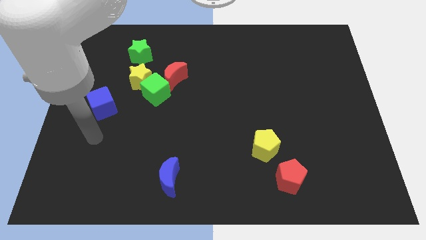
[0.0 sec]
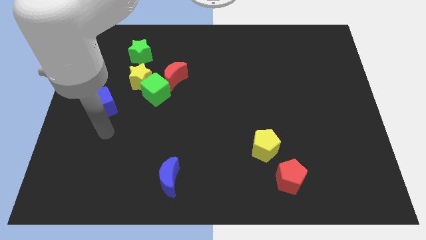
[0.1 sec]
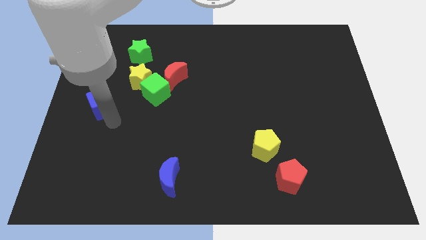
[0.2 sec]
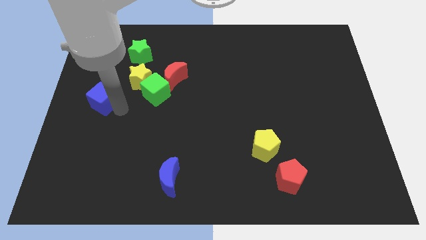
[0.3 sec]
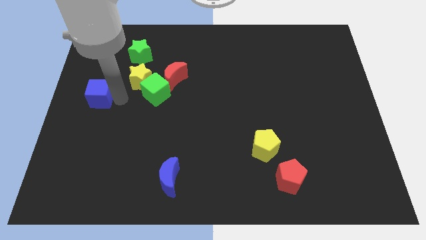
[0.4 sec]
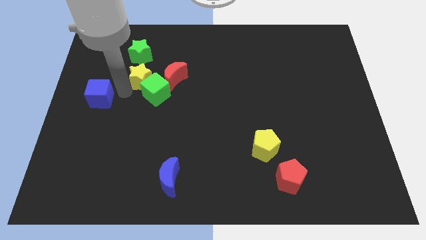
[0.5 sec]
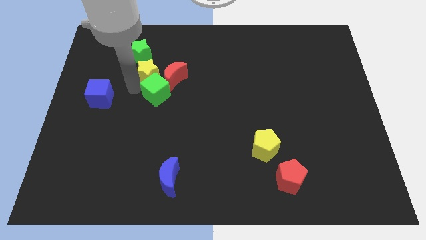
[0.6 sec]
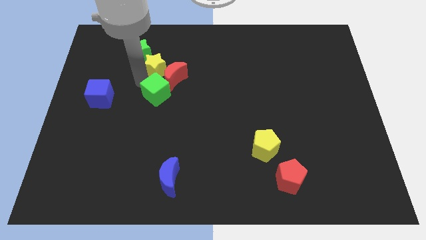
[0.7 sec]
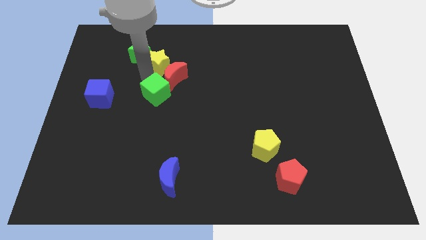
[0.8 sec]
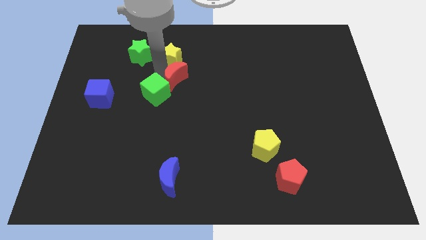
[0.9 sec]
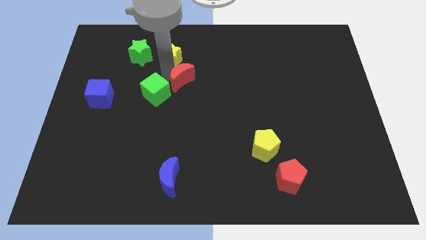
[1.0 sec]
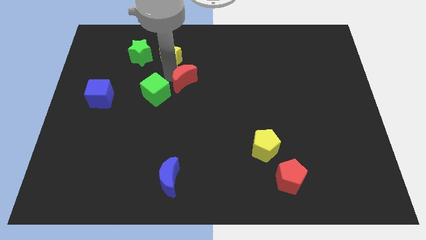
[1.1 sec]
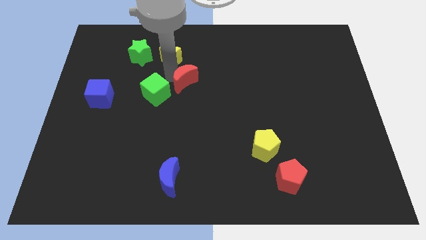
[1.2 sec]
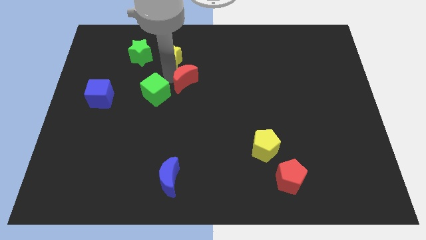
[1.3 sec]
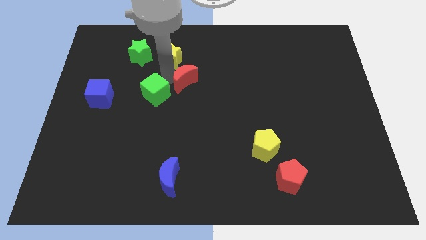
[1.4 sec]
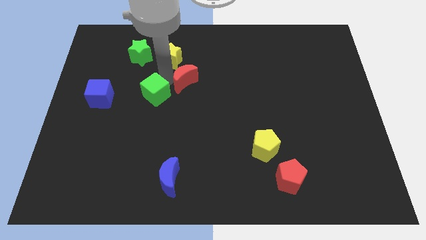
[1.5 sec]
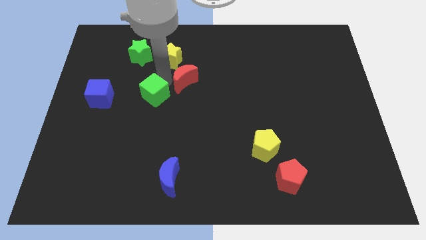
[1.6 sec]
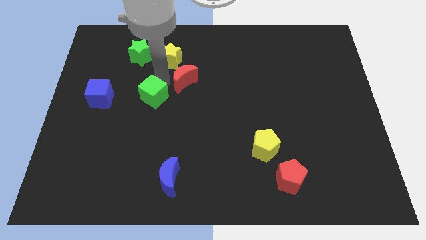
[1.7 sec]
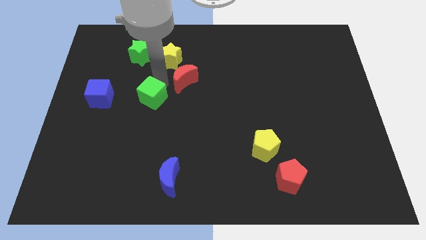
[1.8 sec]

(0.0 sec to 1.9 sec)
move the green cube away from the yellow star and red moon

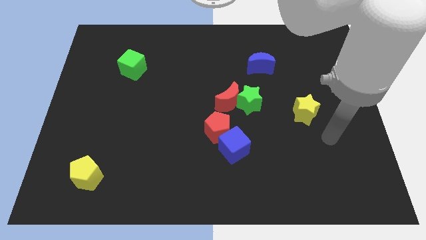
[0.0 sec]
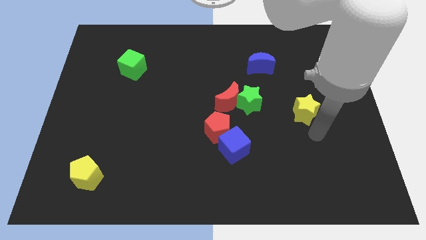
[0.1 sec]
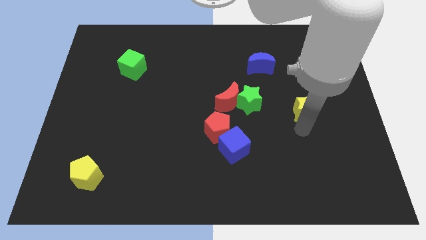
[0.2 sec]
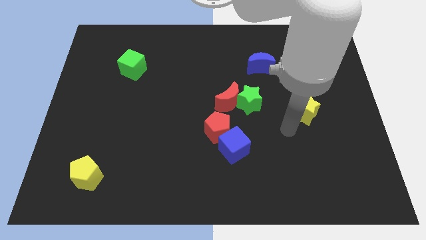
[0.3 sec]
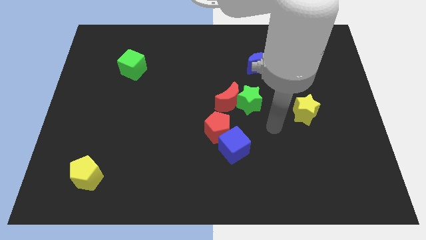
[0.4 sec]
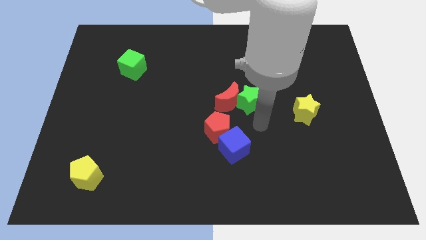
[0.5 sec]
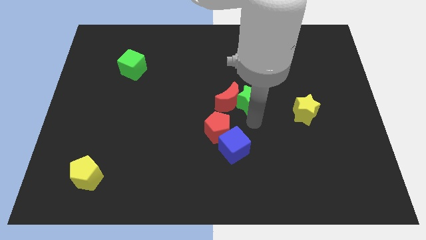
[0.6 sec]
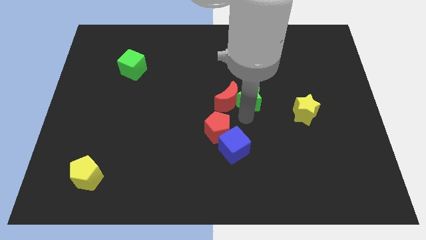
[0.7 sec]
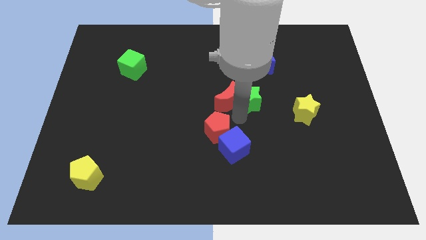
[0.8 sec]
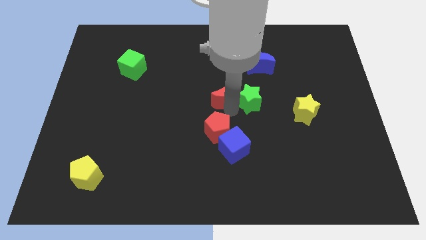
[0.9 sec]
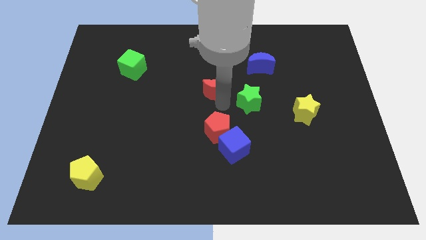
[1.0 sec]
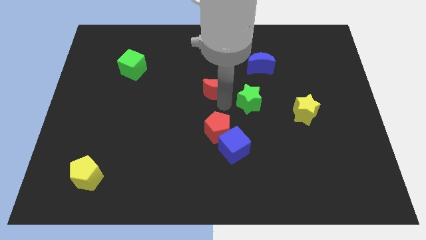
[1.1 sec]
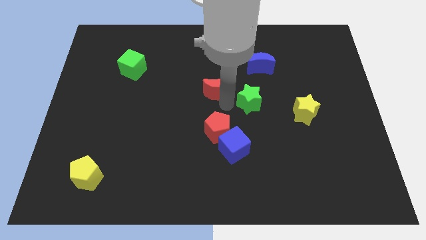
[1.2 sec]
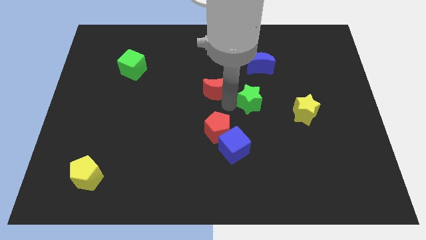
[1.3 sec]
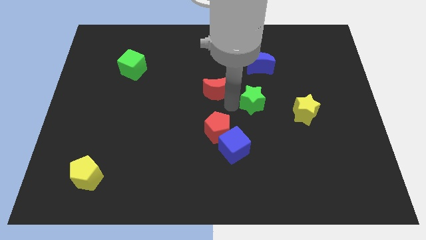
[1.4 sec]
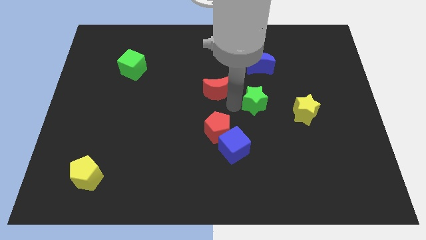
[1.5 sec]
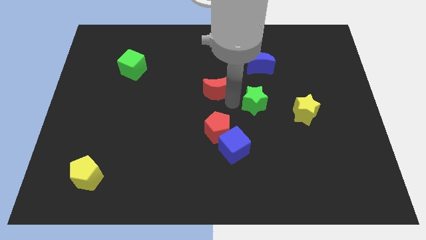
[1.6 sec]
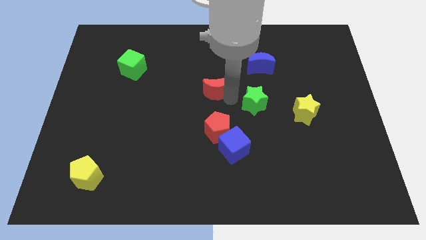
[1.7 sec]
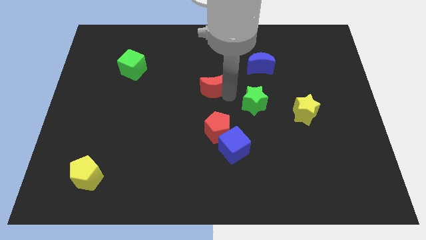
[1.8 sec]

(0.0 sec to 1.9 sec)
move the green star away from the red moon

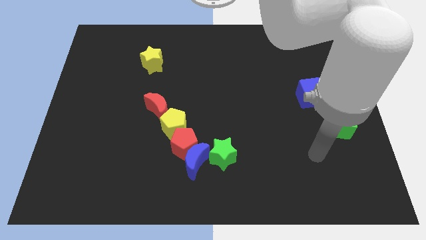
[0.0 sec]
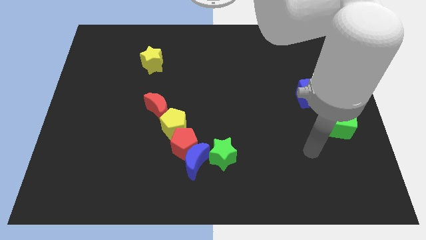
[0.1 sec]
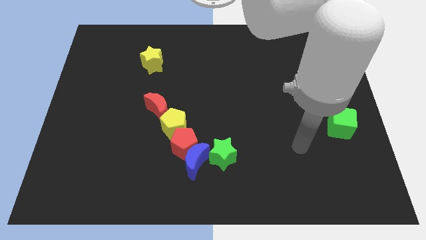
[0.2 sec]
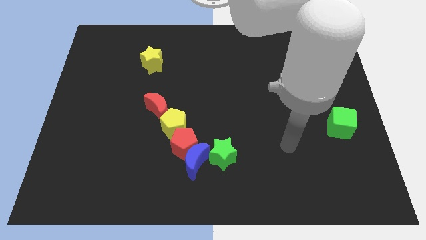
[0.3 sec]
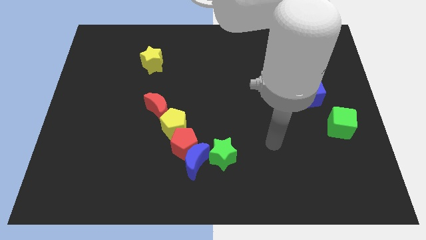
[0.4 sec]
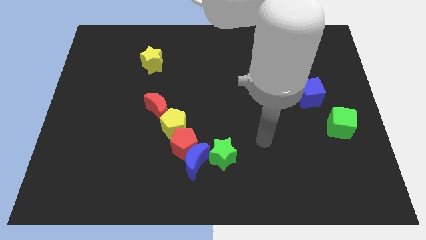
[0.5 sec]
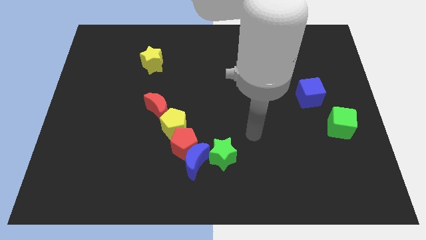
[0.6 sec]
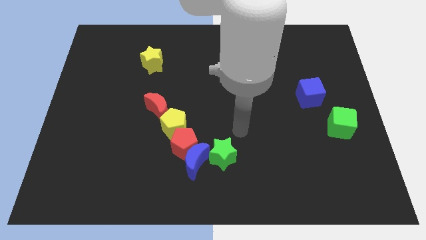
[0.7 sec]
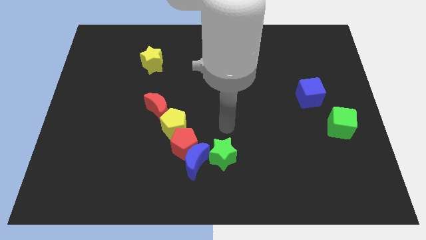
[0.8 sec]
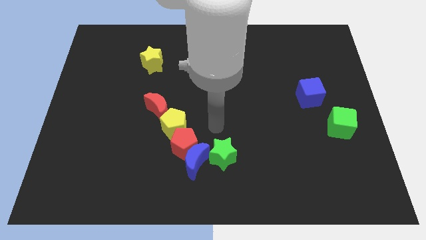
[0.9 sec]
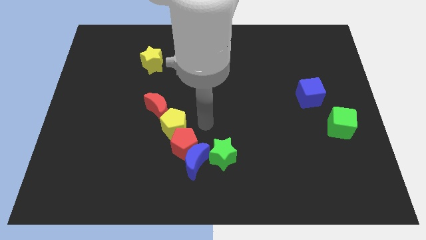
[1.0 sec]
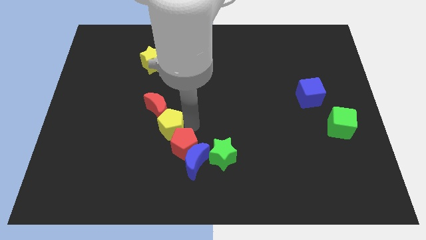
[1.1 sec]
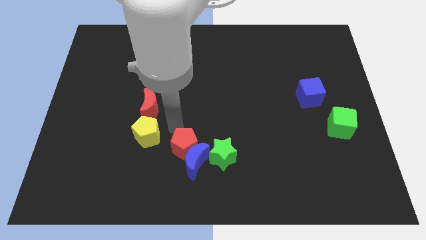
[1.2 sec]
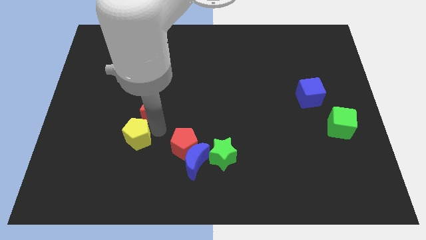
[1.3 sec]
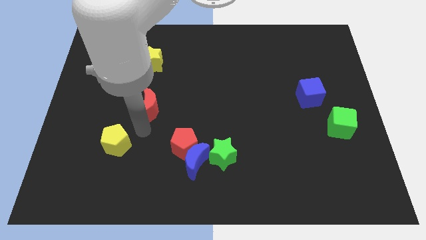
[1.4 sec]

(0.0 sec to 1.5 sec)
pull the red moon apart from the yellow pentagon

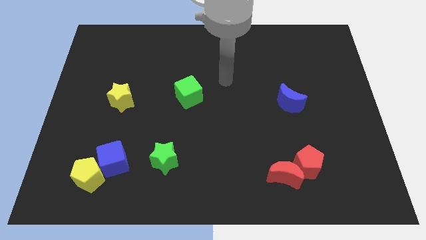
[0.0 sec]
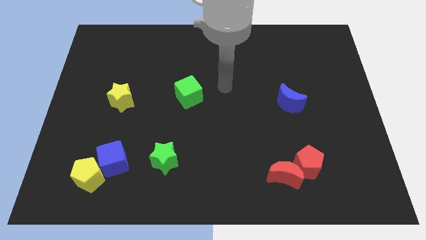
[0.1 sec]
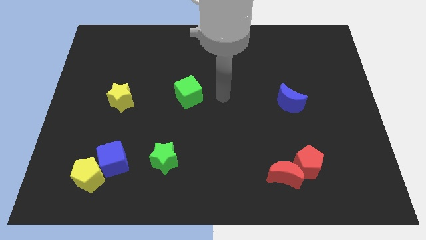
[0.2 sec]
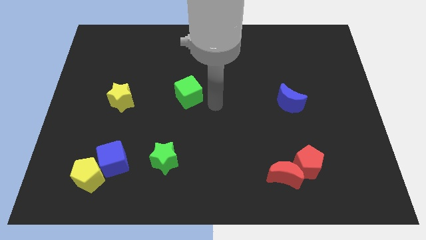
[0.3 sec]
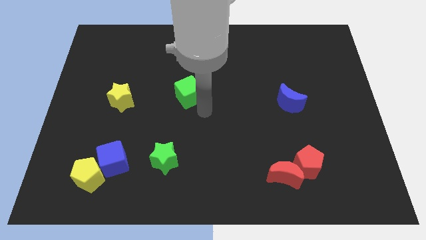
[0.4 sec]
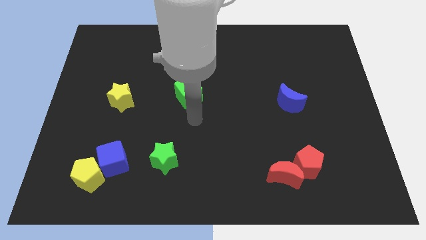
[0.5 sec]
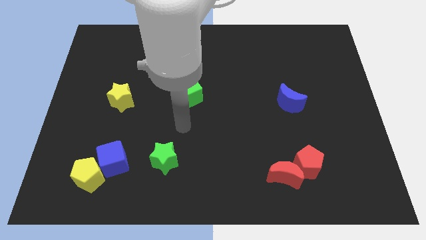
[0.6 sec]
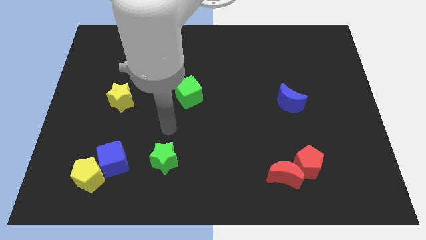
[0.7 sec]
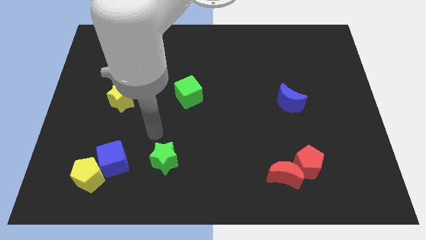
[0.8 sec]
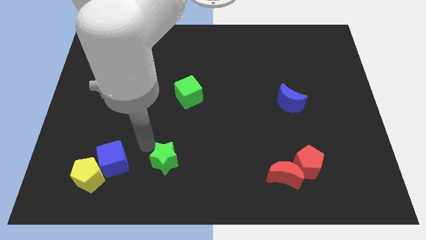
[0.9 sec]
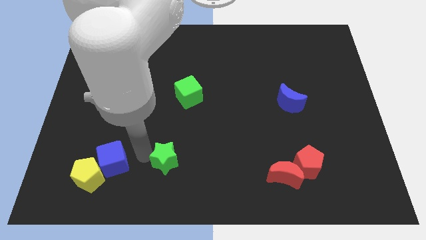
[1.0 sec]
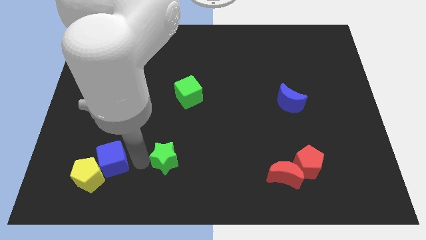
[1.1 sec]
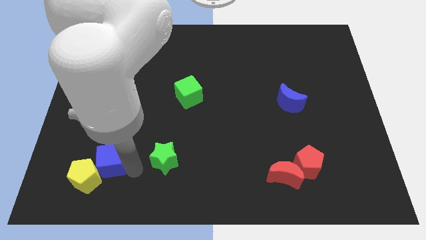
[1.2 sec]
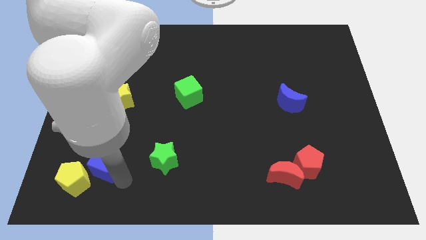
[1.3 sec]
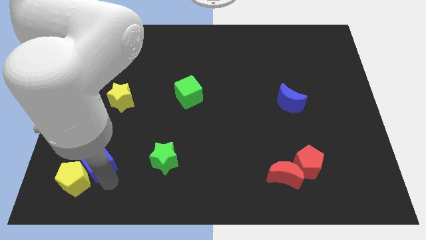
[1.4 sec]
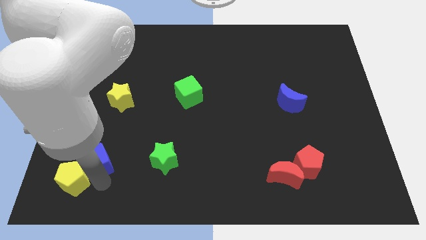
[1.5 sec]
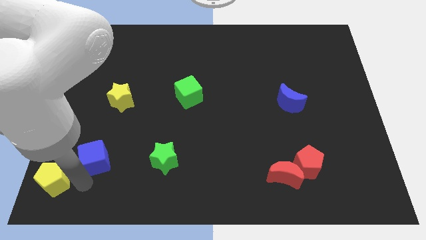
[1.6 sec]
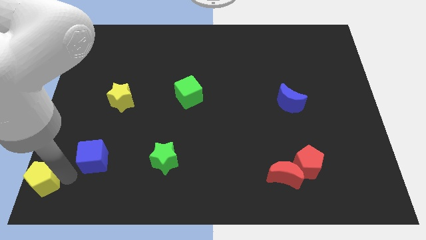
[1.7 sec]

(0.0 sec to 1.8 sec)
separate the blue cube from the yellow pentagon

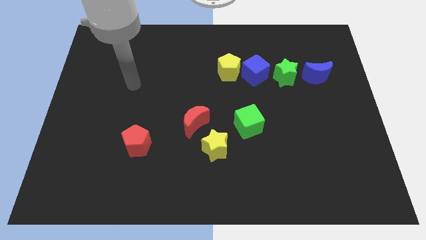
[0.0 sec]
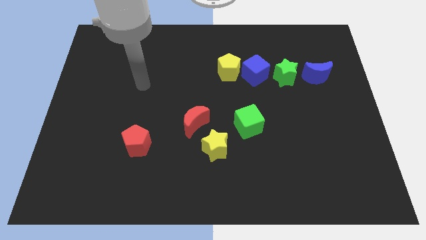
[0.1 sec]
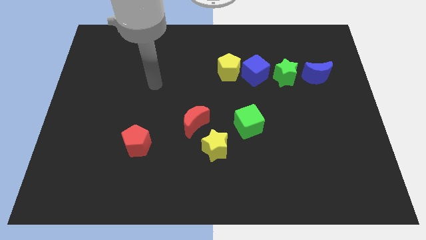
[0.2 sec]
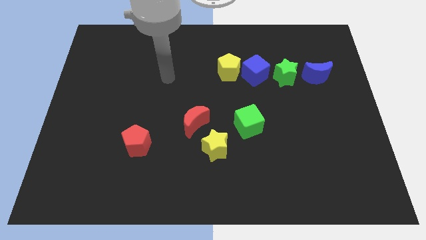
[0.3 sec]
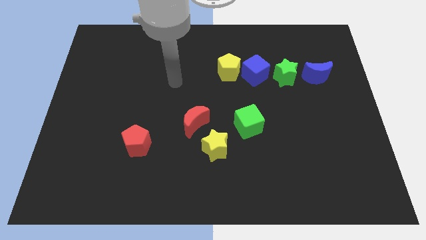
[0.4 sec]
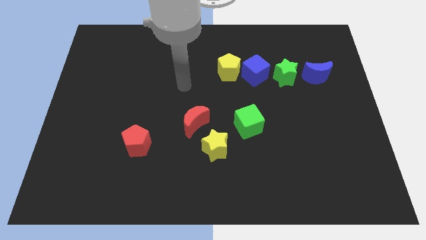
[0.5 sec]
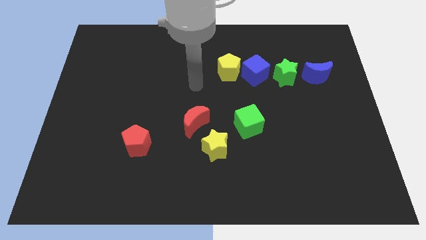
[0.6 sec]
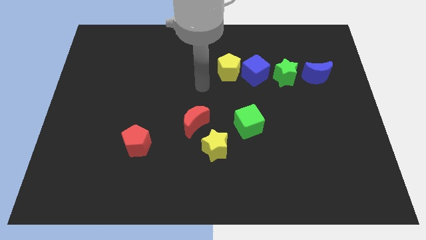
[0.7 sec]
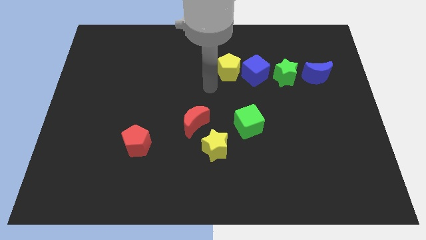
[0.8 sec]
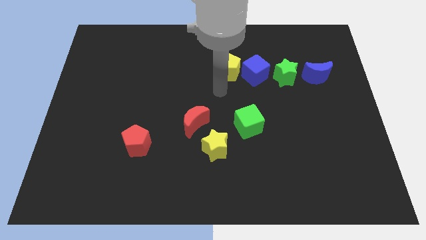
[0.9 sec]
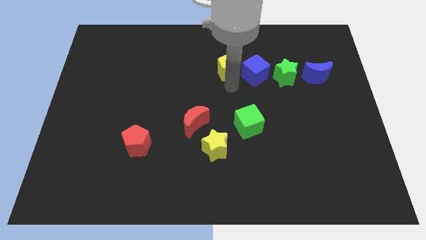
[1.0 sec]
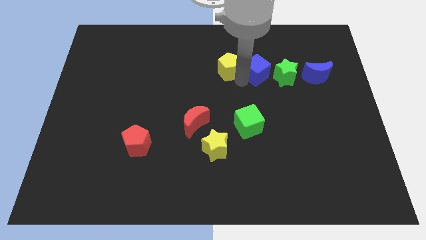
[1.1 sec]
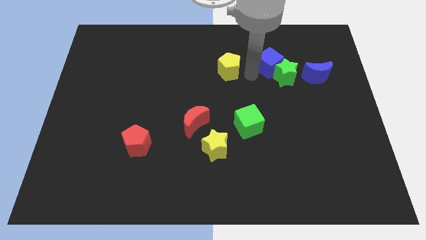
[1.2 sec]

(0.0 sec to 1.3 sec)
separate the yellow pentagon from the blue cube

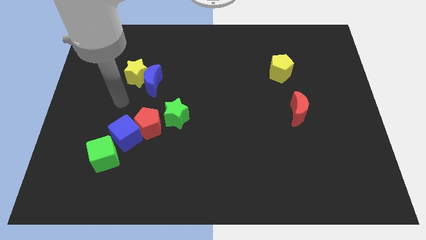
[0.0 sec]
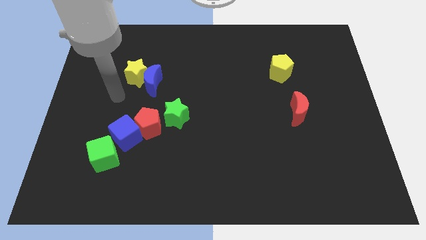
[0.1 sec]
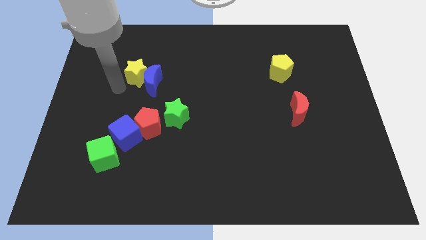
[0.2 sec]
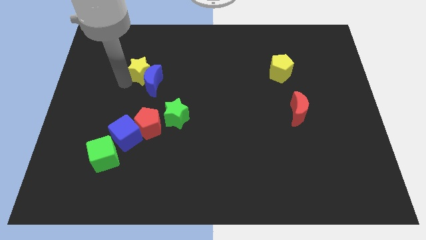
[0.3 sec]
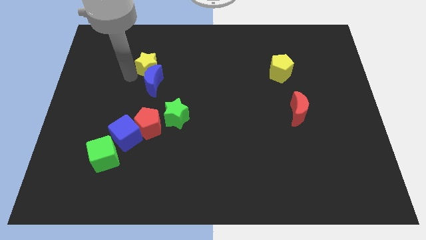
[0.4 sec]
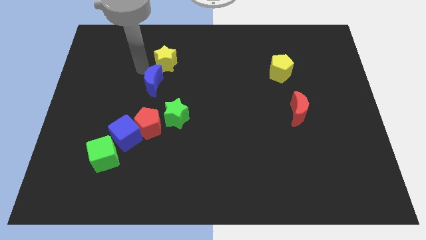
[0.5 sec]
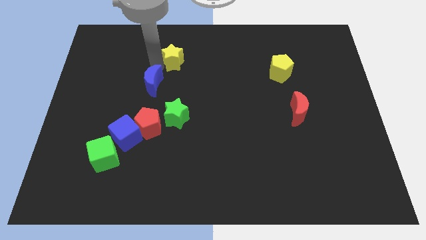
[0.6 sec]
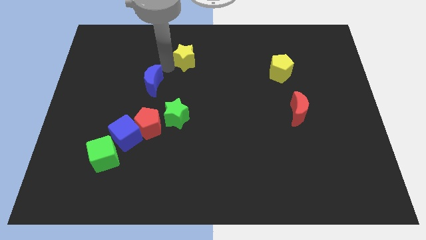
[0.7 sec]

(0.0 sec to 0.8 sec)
pull the blue moon apart from the yellow star
